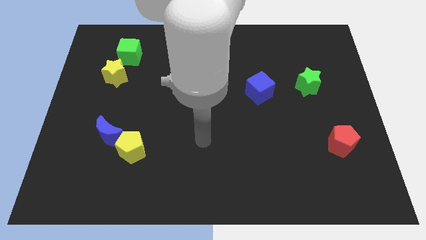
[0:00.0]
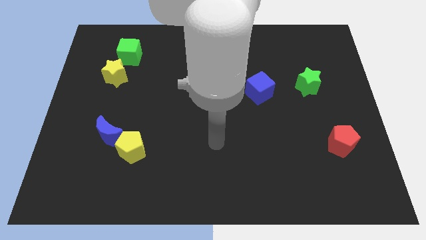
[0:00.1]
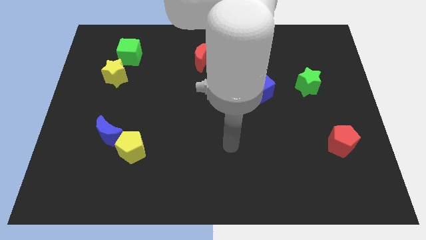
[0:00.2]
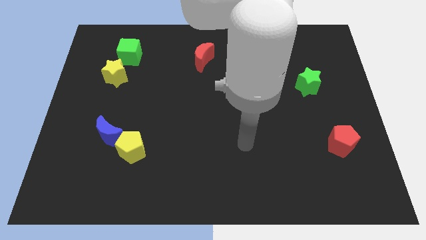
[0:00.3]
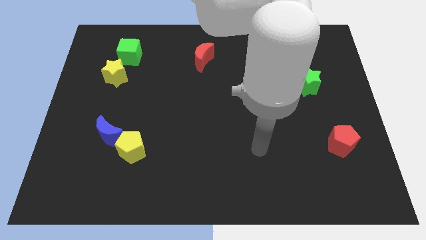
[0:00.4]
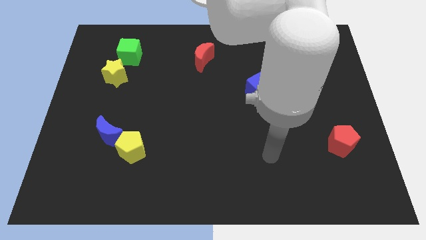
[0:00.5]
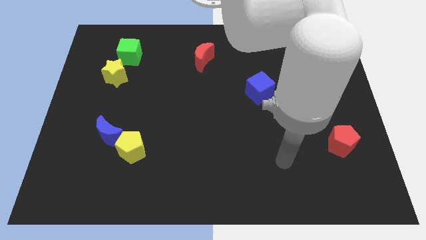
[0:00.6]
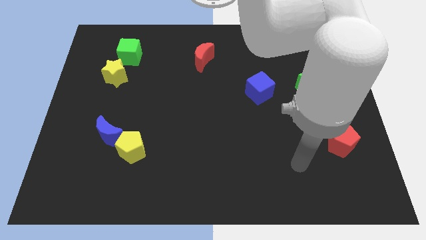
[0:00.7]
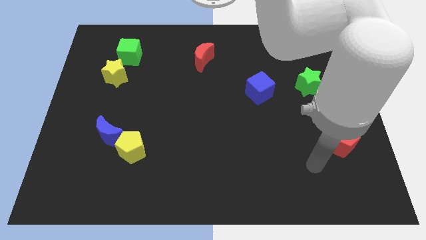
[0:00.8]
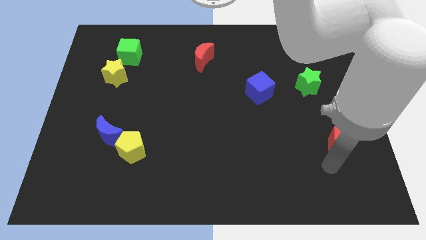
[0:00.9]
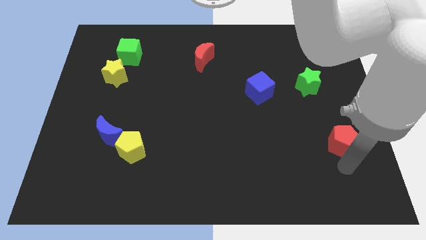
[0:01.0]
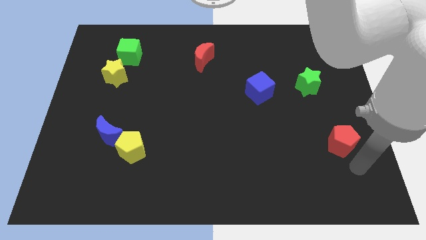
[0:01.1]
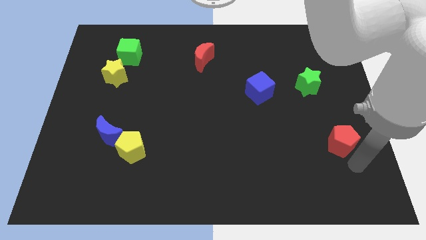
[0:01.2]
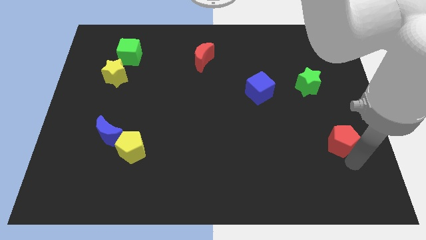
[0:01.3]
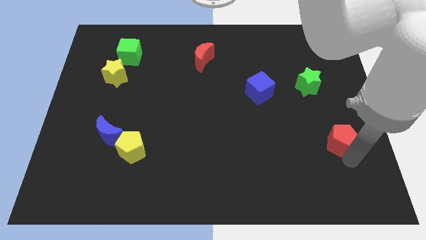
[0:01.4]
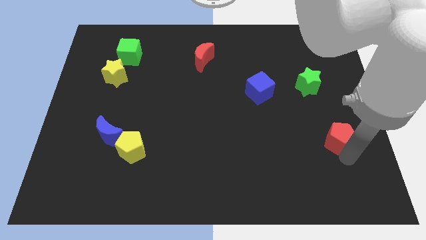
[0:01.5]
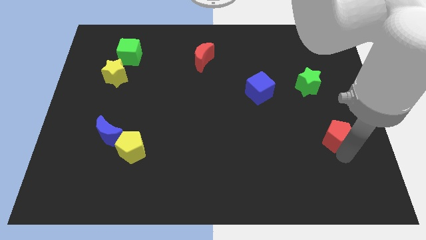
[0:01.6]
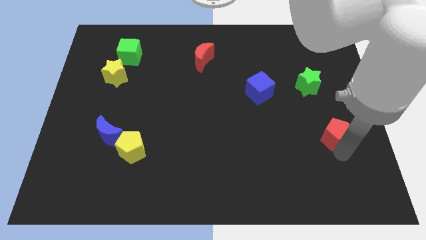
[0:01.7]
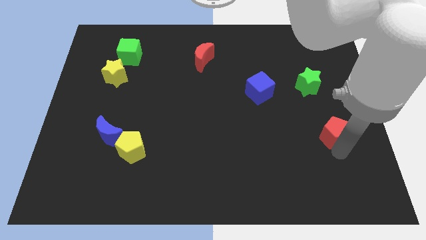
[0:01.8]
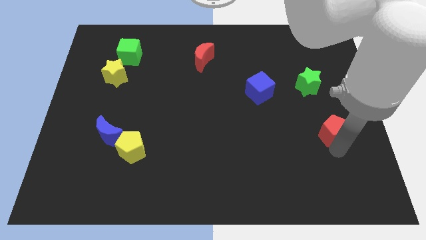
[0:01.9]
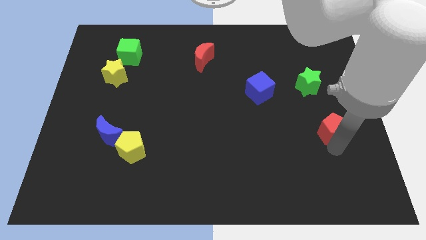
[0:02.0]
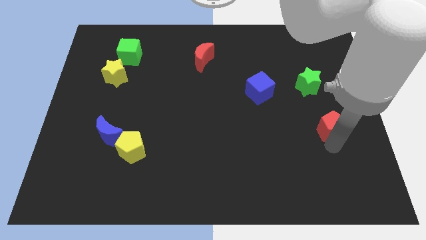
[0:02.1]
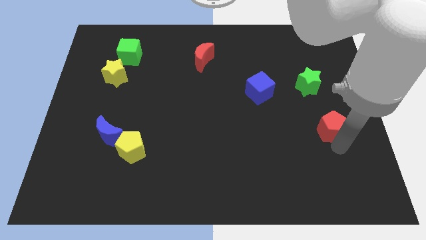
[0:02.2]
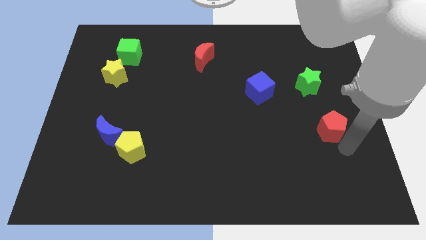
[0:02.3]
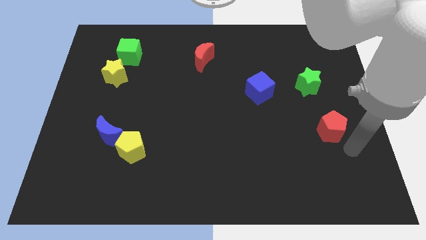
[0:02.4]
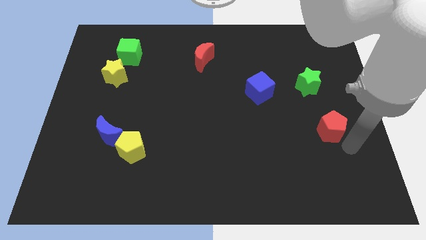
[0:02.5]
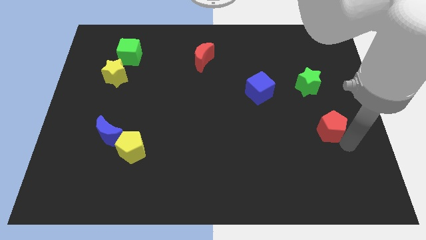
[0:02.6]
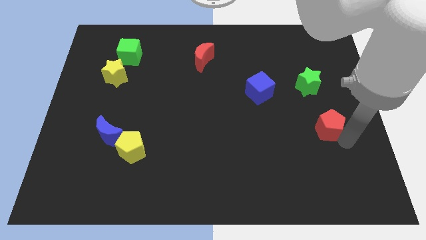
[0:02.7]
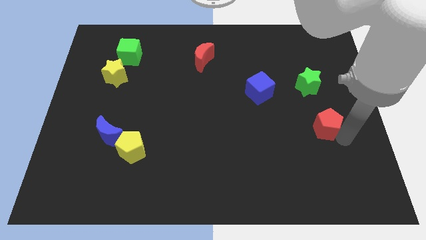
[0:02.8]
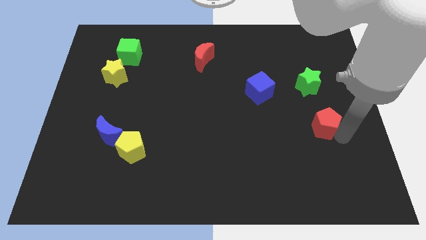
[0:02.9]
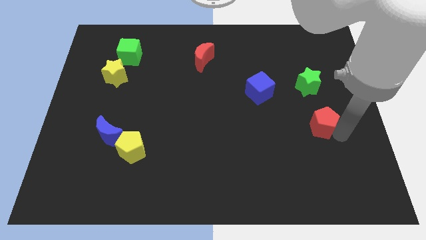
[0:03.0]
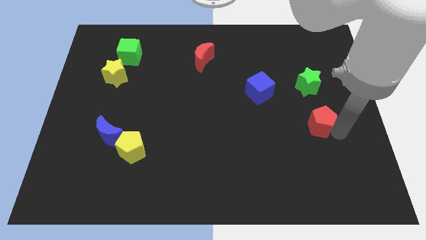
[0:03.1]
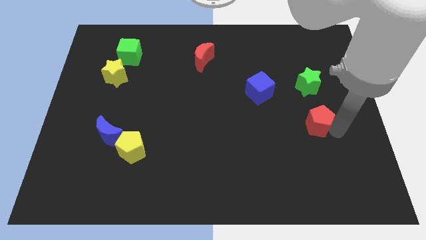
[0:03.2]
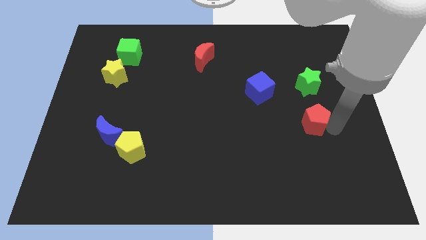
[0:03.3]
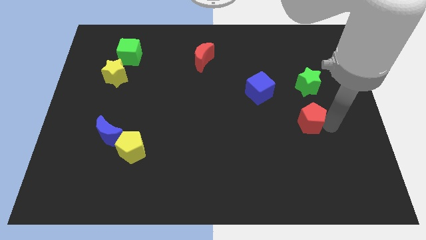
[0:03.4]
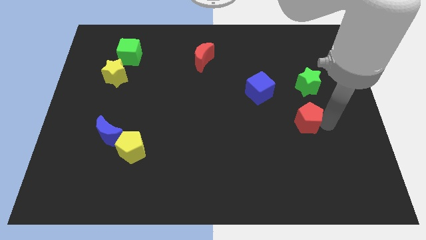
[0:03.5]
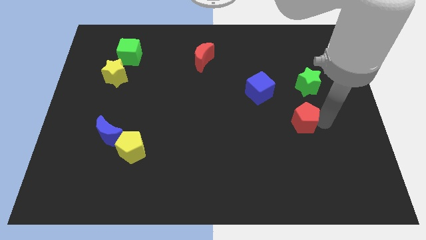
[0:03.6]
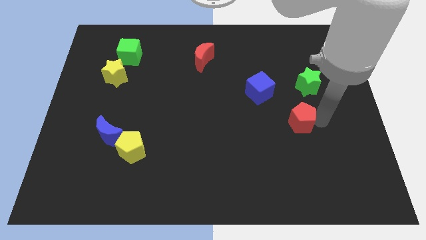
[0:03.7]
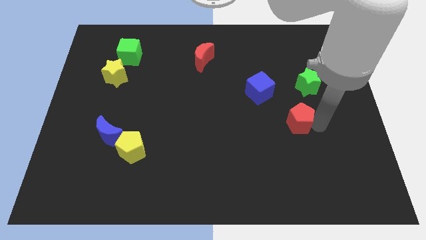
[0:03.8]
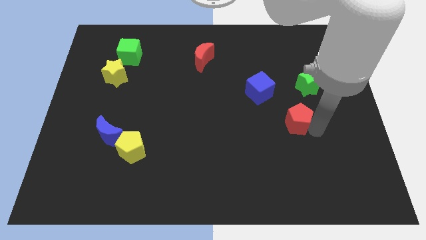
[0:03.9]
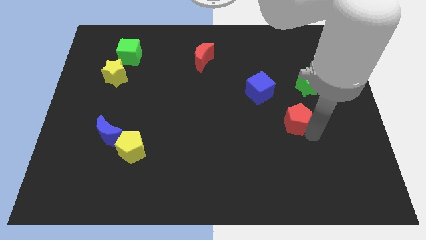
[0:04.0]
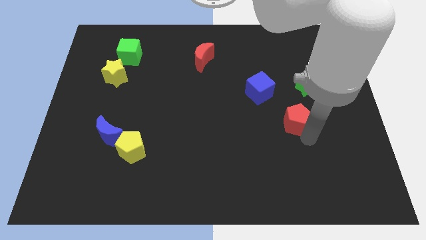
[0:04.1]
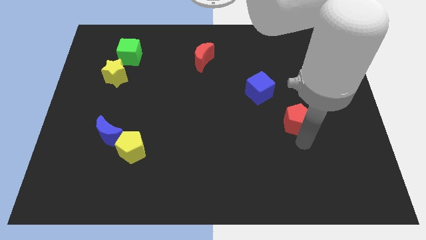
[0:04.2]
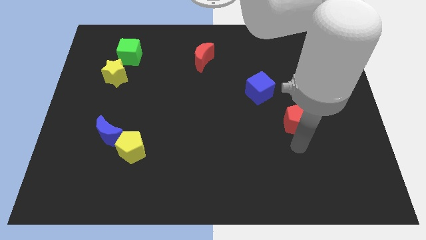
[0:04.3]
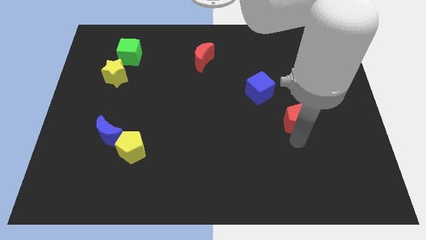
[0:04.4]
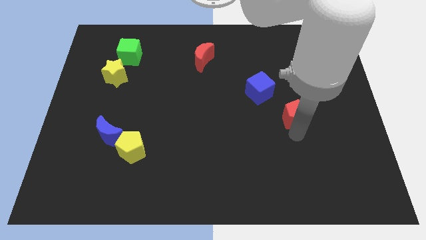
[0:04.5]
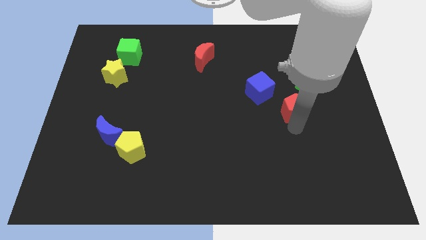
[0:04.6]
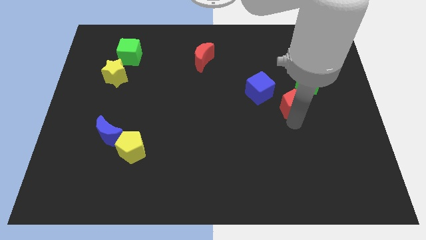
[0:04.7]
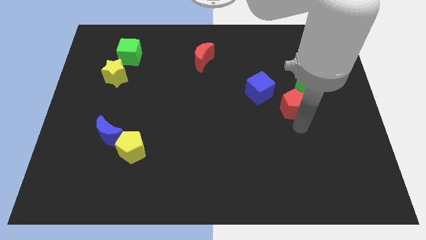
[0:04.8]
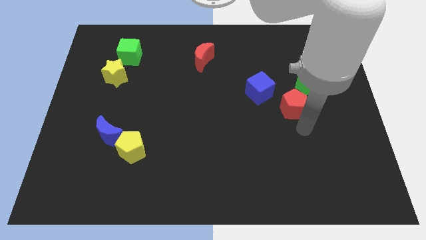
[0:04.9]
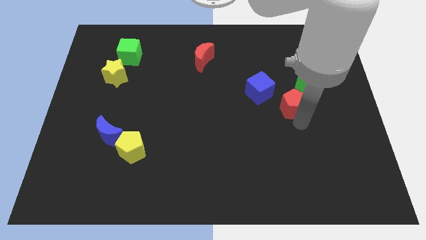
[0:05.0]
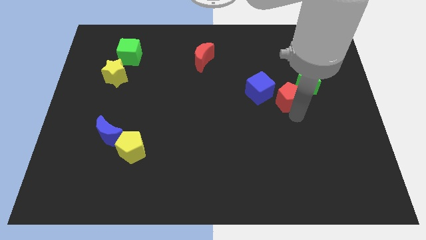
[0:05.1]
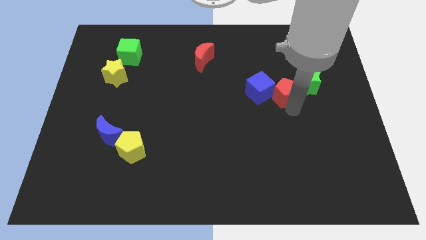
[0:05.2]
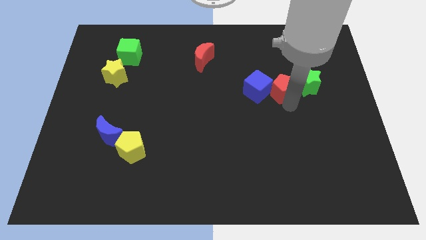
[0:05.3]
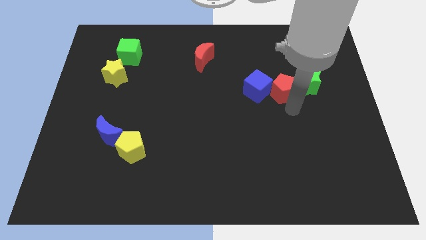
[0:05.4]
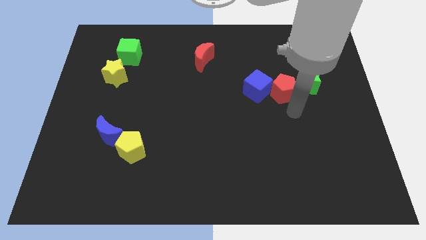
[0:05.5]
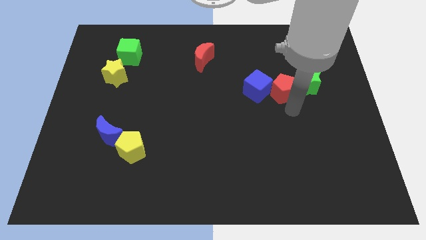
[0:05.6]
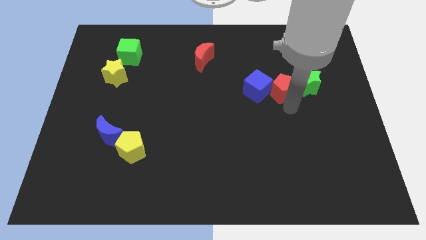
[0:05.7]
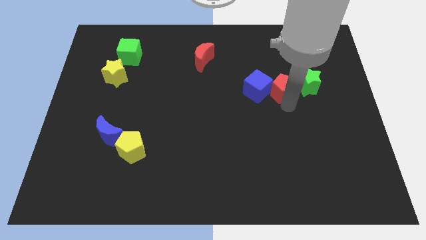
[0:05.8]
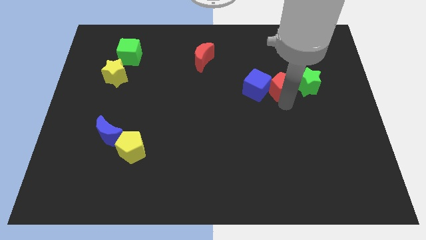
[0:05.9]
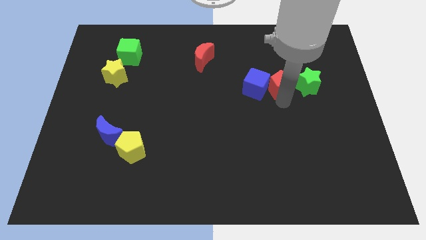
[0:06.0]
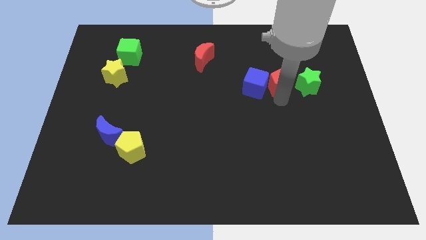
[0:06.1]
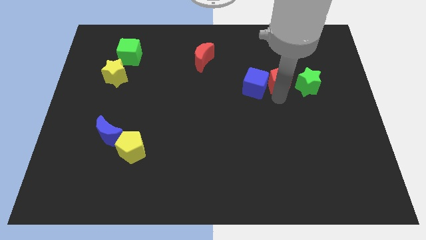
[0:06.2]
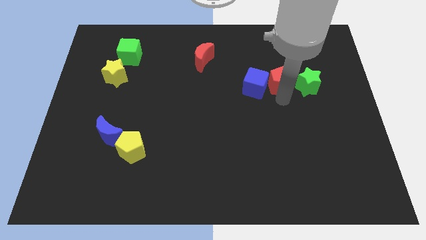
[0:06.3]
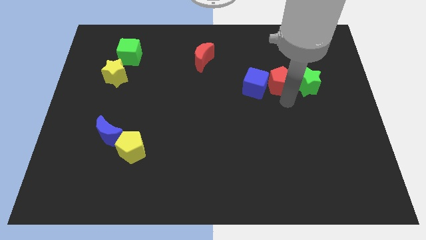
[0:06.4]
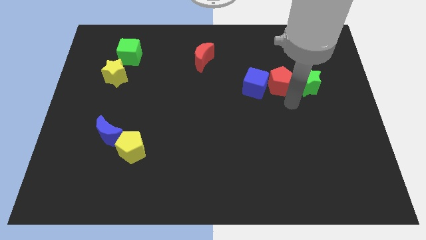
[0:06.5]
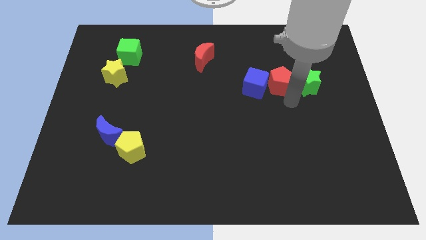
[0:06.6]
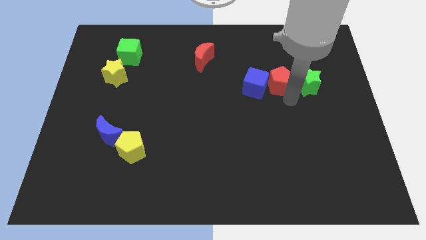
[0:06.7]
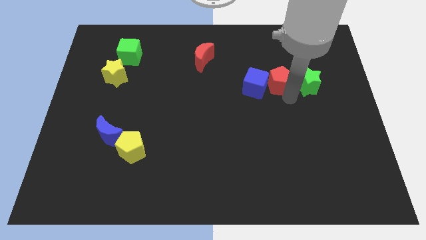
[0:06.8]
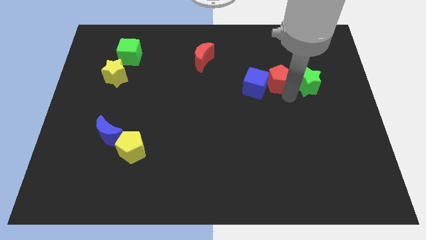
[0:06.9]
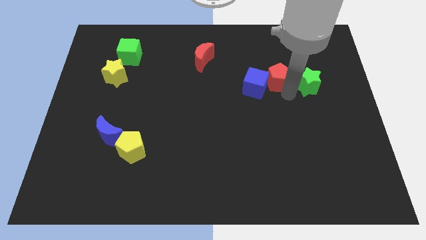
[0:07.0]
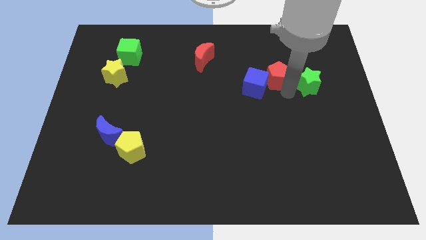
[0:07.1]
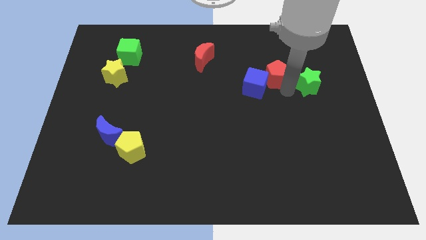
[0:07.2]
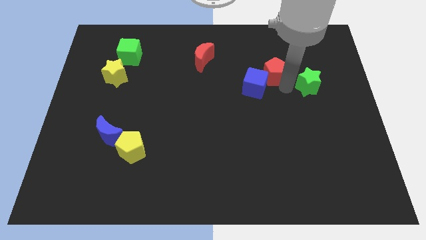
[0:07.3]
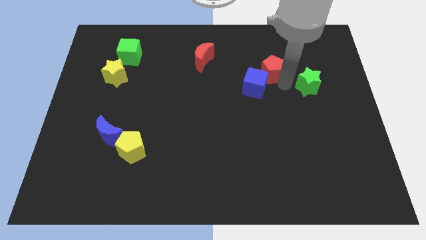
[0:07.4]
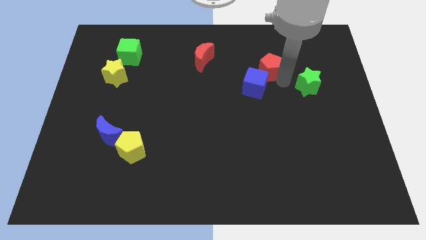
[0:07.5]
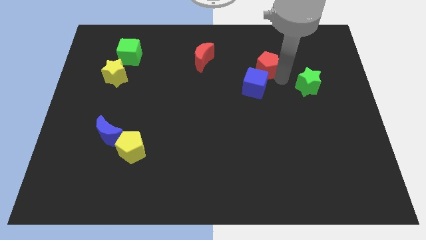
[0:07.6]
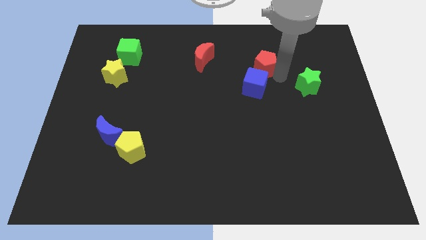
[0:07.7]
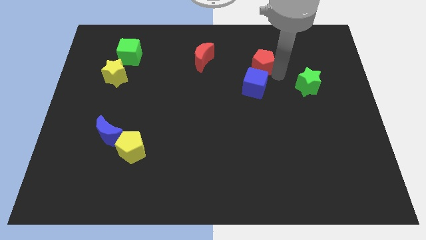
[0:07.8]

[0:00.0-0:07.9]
slide the red pentagon just right of the red moon
